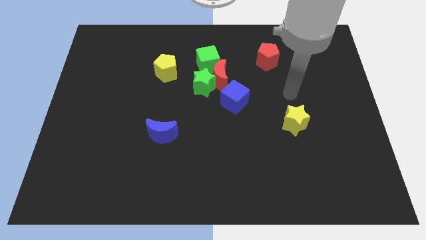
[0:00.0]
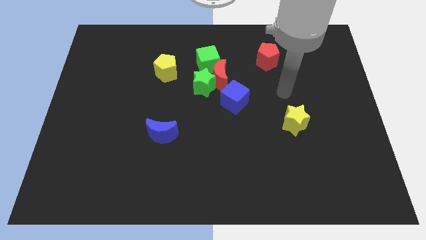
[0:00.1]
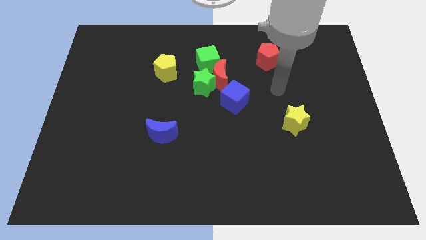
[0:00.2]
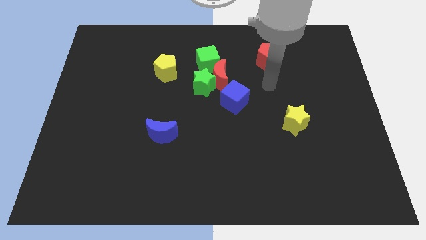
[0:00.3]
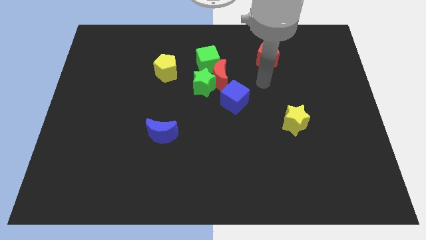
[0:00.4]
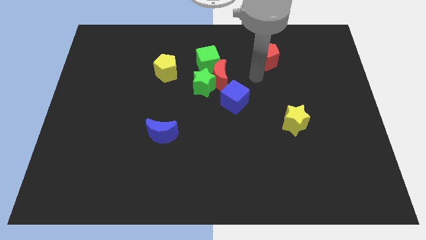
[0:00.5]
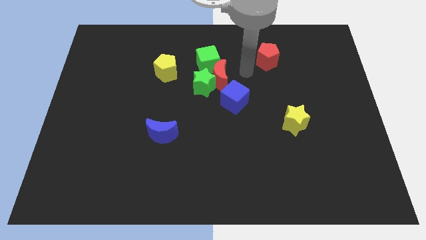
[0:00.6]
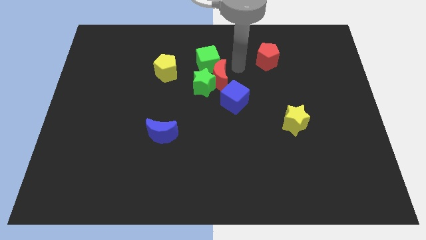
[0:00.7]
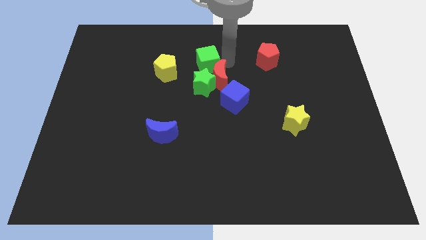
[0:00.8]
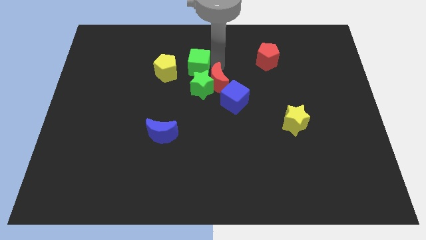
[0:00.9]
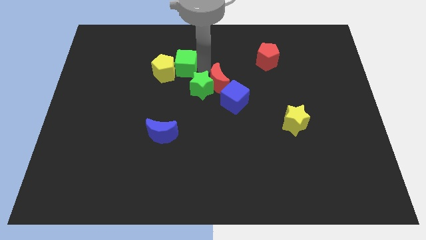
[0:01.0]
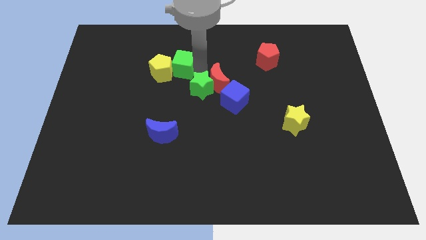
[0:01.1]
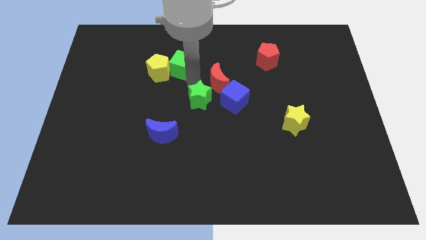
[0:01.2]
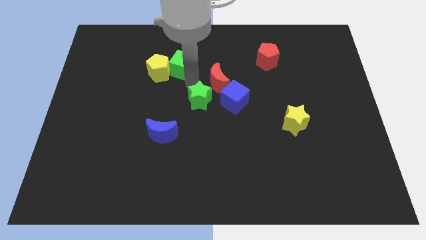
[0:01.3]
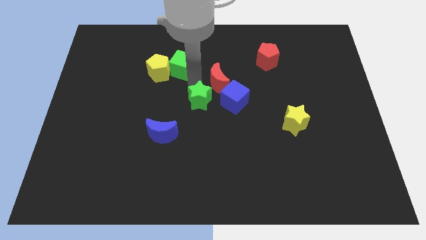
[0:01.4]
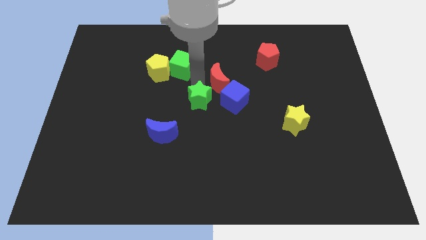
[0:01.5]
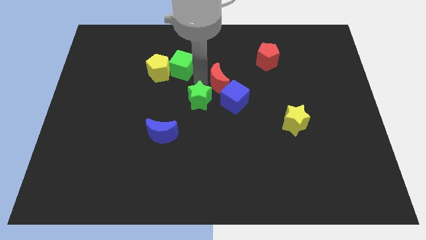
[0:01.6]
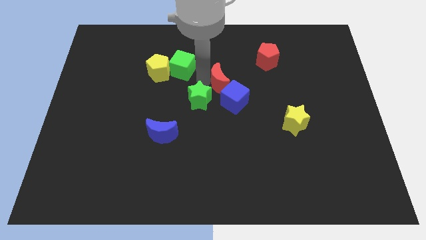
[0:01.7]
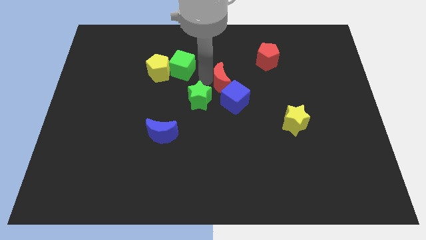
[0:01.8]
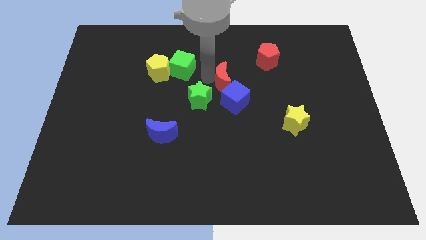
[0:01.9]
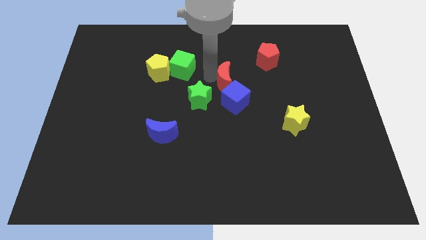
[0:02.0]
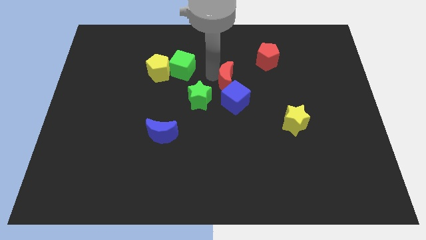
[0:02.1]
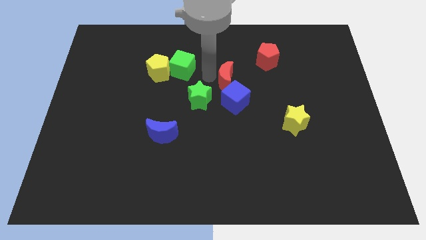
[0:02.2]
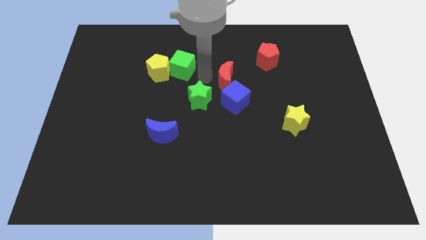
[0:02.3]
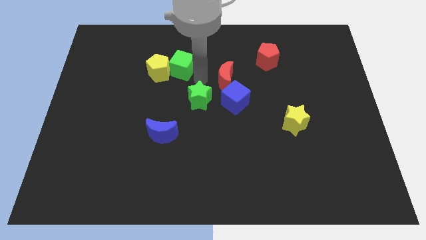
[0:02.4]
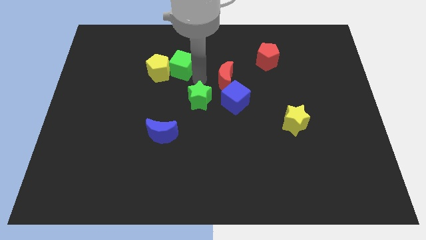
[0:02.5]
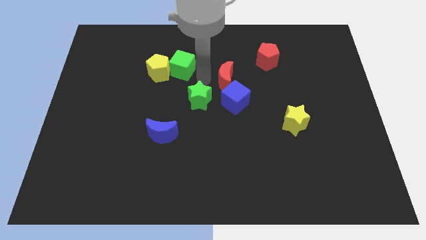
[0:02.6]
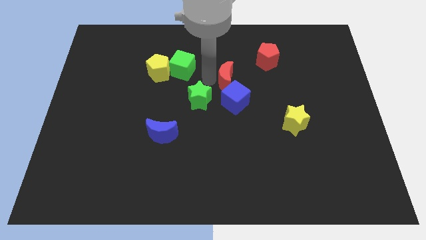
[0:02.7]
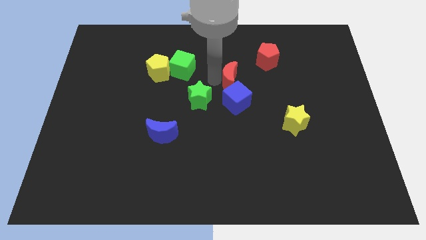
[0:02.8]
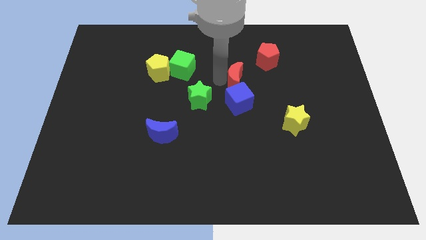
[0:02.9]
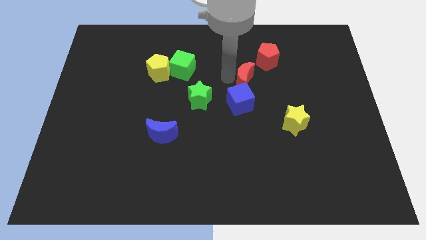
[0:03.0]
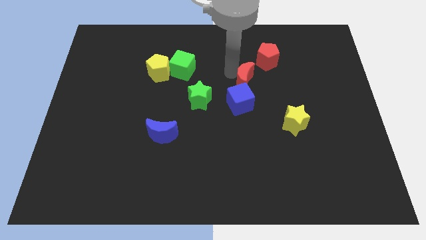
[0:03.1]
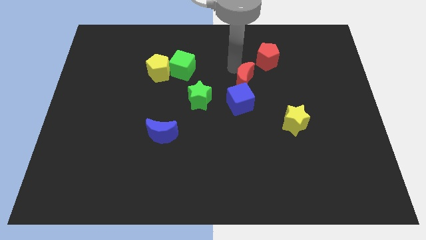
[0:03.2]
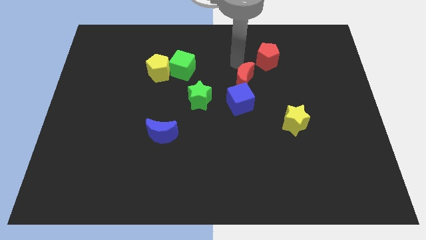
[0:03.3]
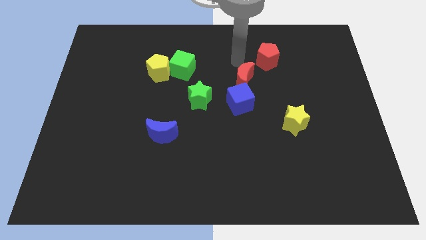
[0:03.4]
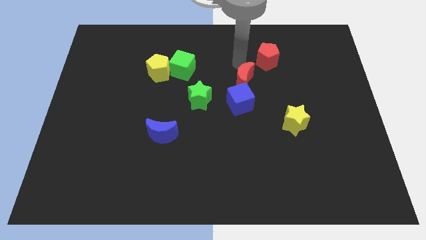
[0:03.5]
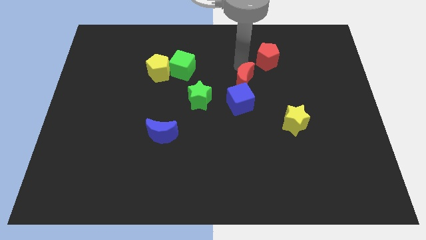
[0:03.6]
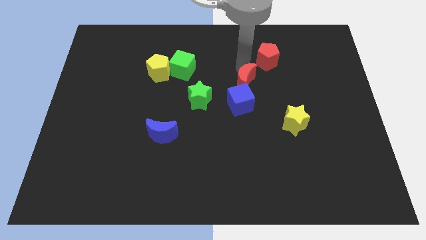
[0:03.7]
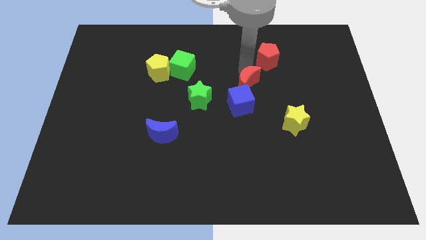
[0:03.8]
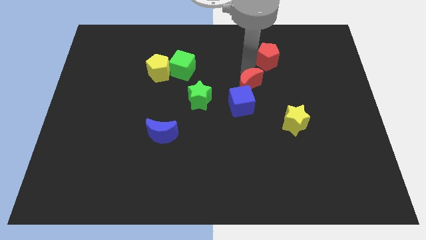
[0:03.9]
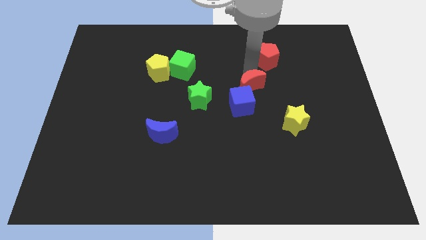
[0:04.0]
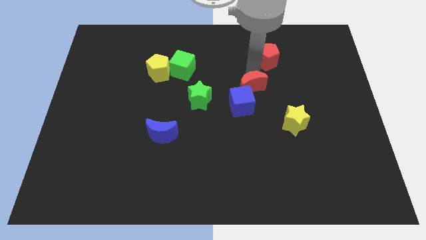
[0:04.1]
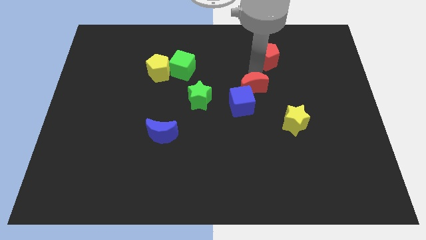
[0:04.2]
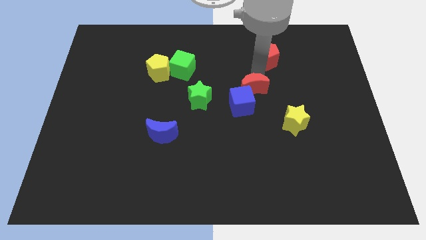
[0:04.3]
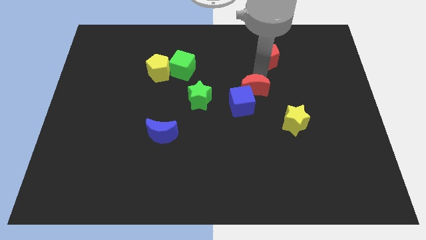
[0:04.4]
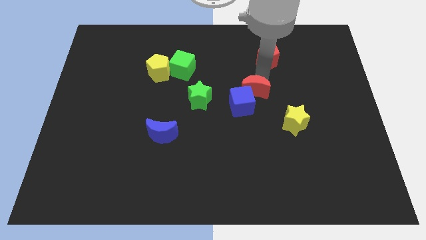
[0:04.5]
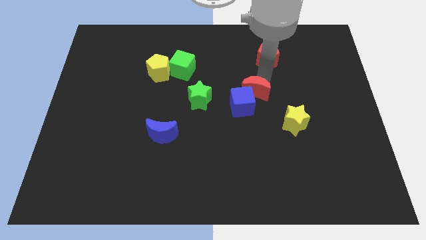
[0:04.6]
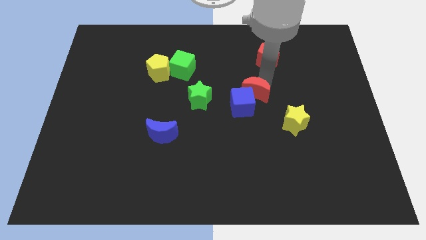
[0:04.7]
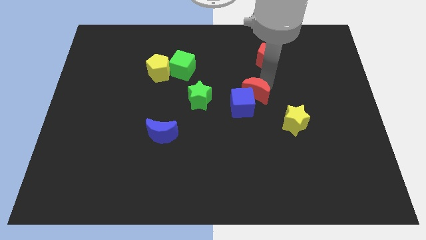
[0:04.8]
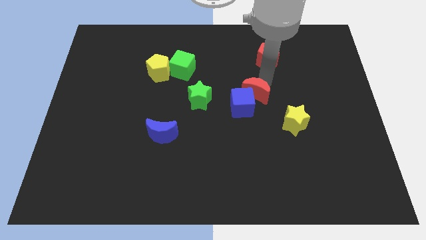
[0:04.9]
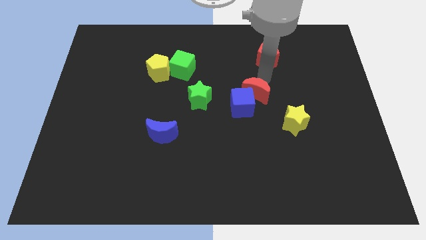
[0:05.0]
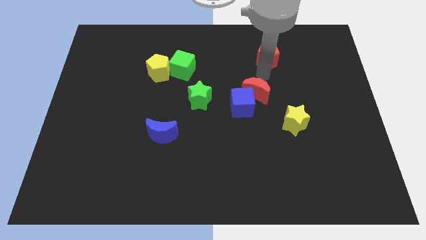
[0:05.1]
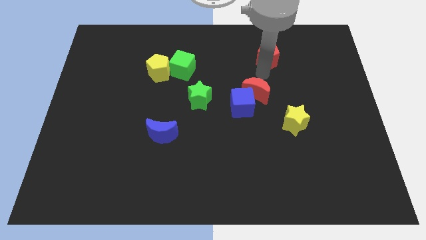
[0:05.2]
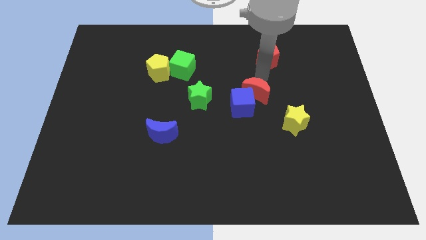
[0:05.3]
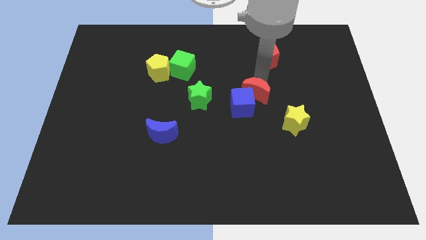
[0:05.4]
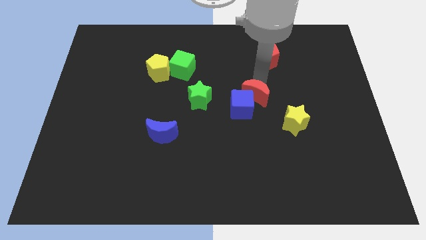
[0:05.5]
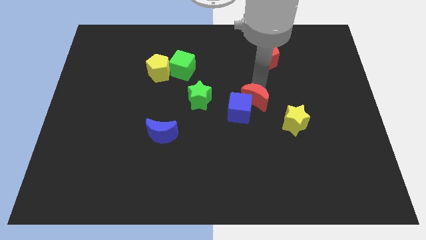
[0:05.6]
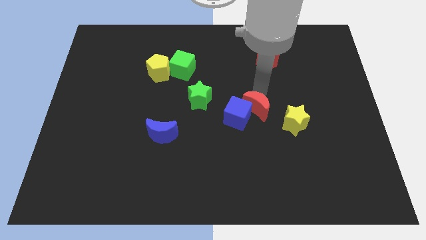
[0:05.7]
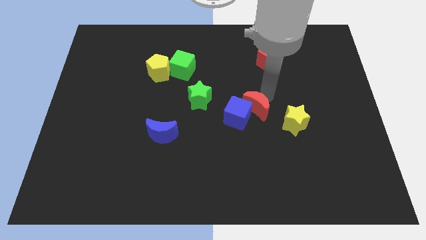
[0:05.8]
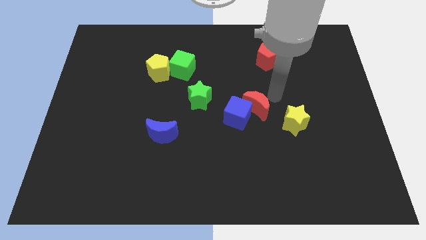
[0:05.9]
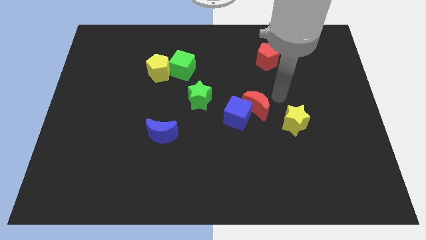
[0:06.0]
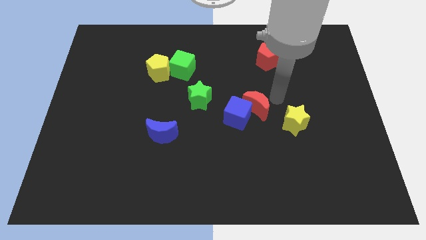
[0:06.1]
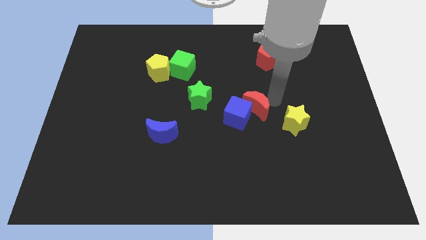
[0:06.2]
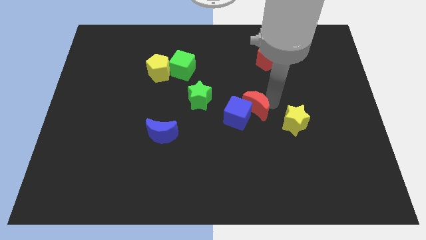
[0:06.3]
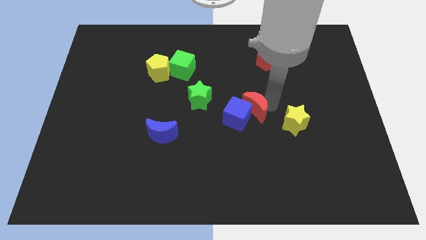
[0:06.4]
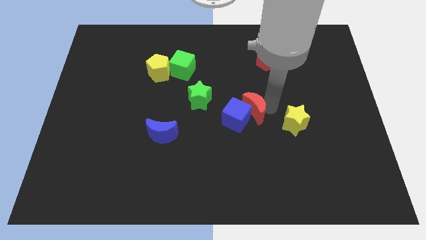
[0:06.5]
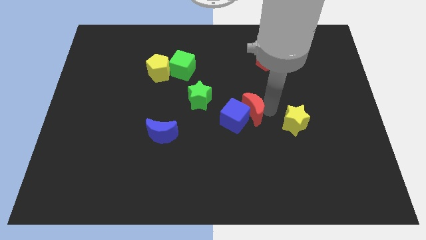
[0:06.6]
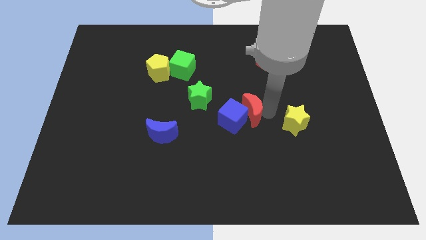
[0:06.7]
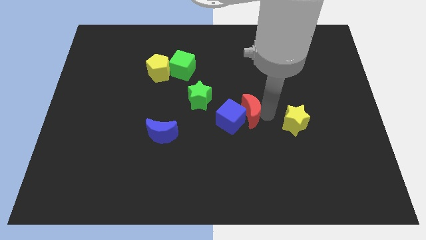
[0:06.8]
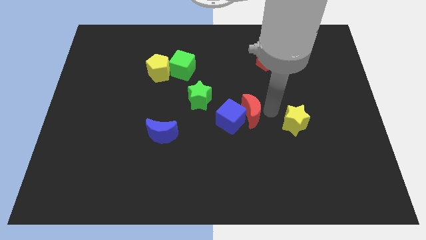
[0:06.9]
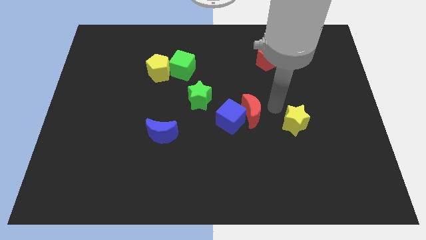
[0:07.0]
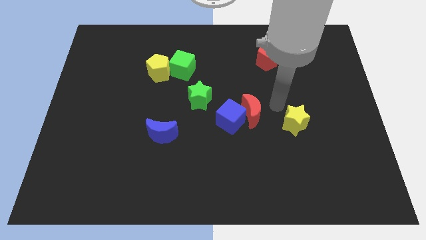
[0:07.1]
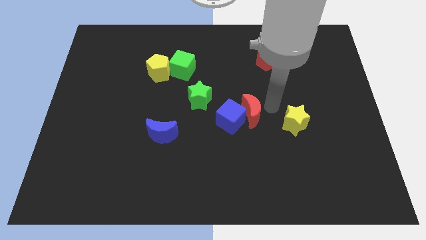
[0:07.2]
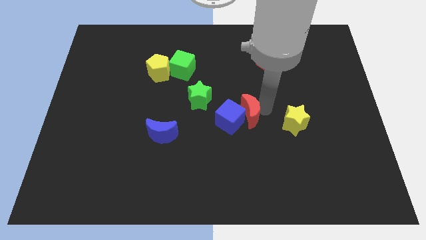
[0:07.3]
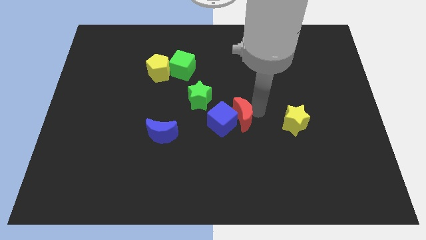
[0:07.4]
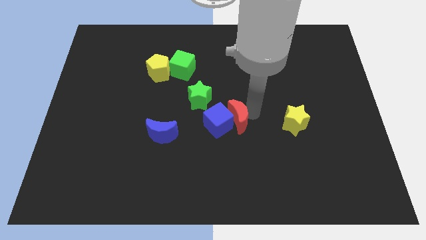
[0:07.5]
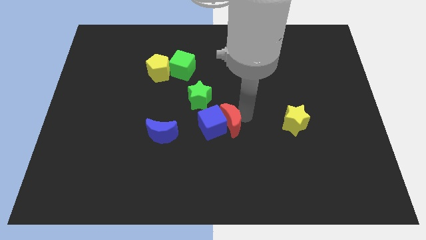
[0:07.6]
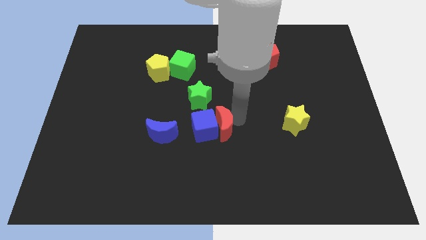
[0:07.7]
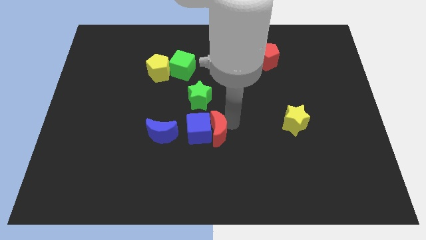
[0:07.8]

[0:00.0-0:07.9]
slide the red moon to the bottom of the green star
